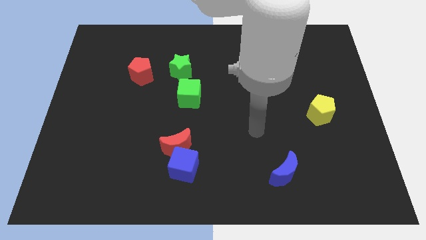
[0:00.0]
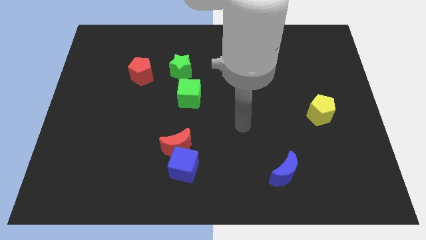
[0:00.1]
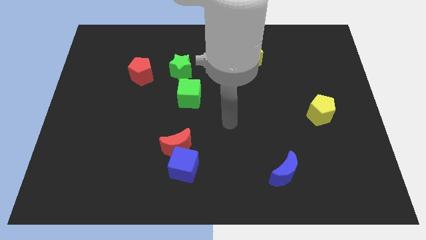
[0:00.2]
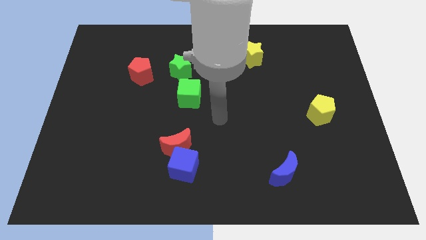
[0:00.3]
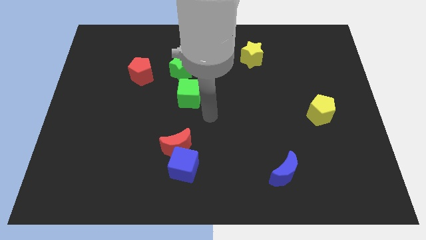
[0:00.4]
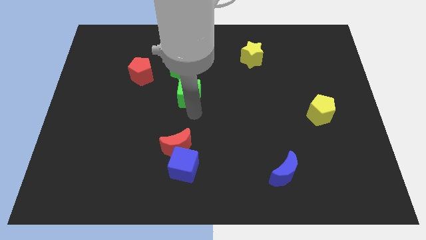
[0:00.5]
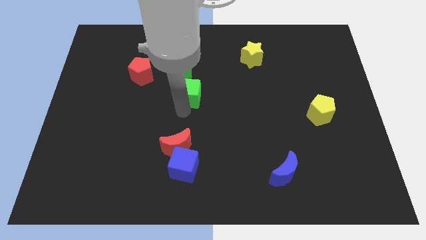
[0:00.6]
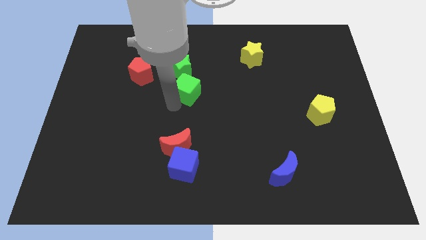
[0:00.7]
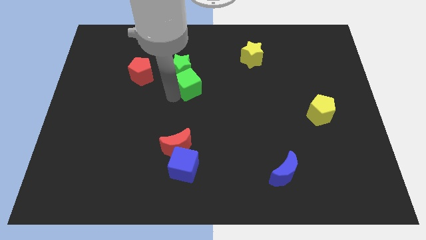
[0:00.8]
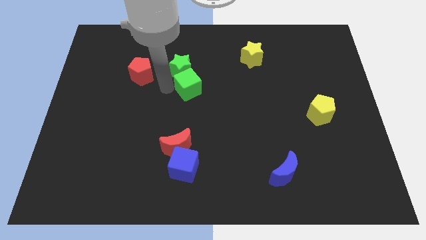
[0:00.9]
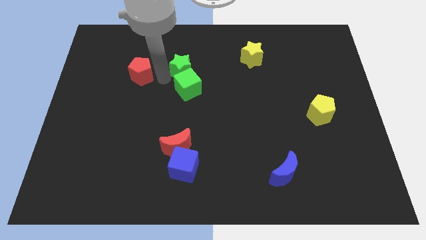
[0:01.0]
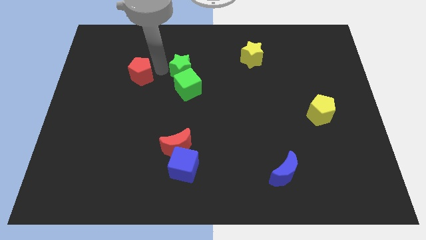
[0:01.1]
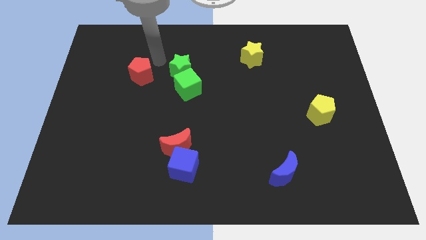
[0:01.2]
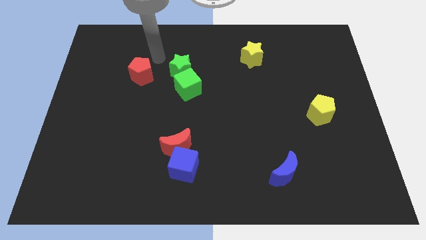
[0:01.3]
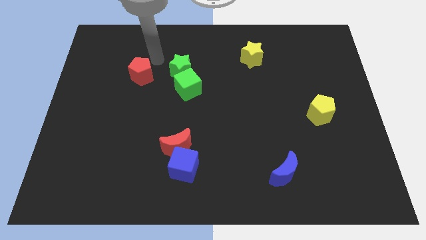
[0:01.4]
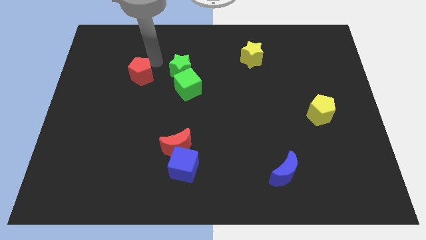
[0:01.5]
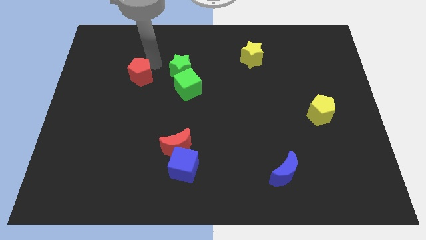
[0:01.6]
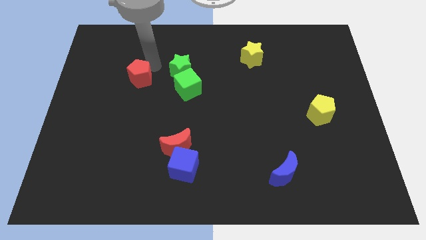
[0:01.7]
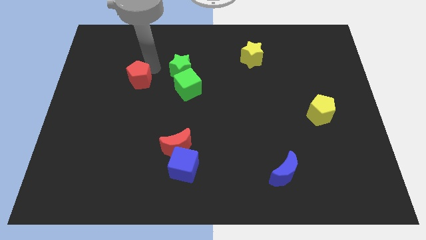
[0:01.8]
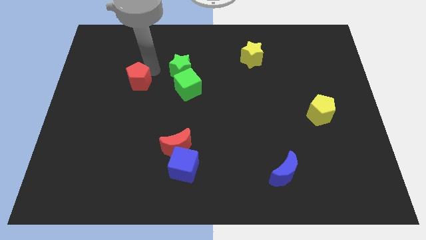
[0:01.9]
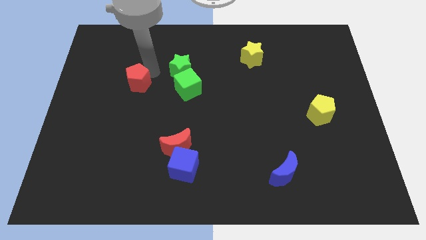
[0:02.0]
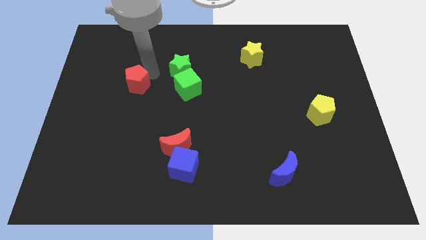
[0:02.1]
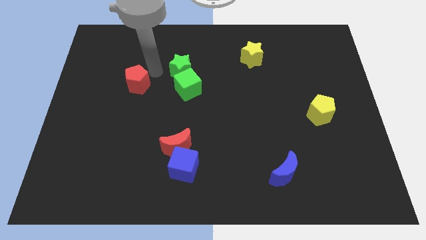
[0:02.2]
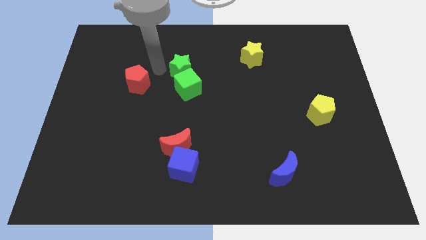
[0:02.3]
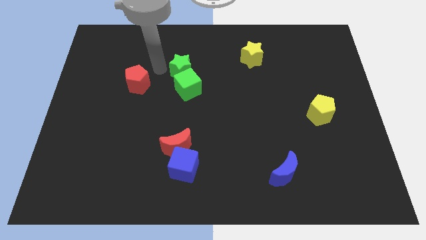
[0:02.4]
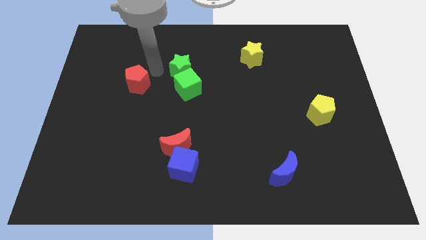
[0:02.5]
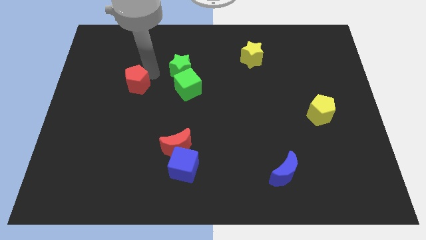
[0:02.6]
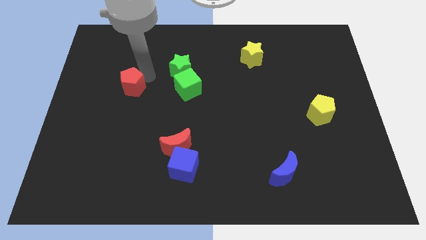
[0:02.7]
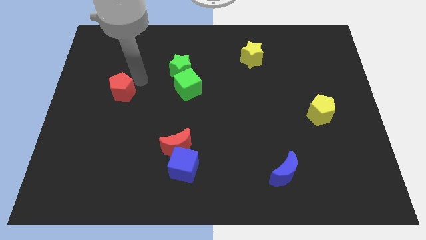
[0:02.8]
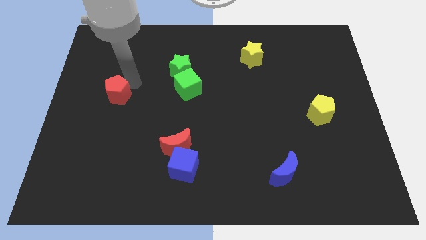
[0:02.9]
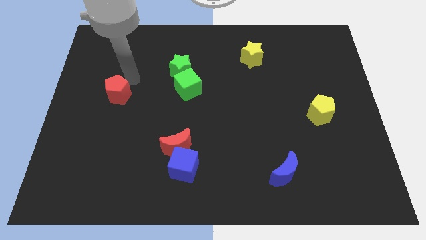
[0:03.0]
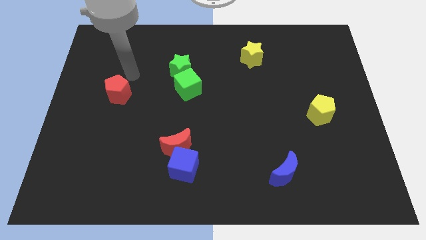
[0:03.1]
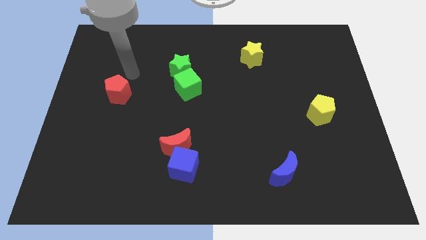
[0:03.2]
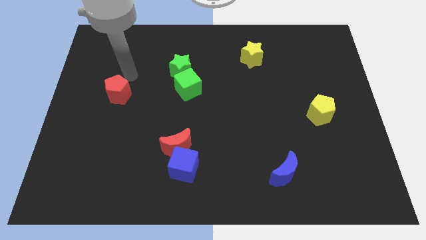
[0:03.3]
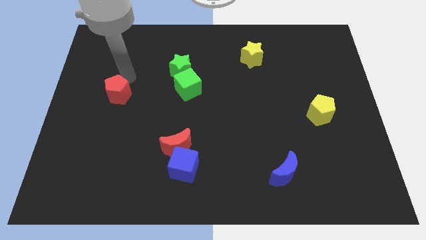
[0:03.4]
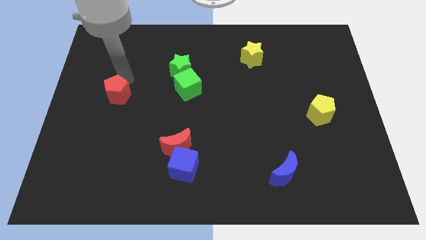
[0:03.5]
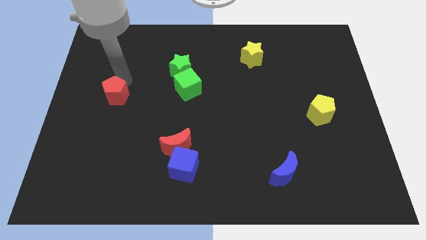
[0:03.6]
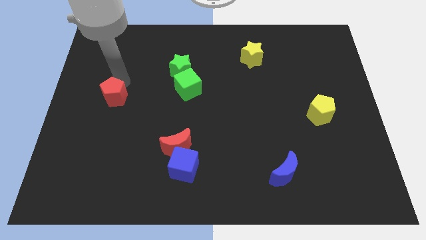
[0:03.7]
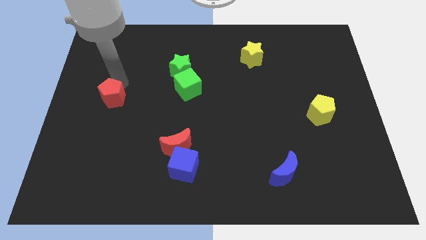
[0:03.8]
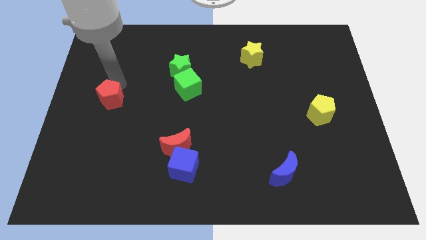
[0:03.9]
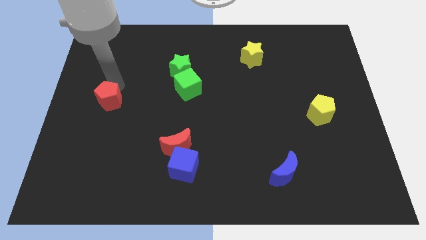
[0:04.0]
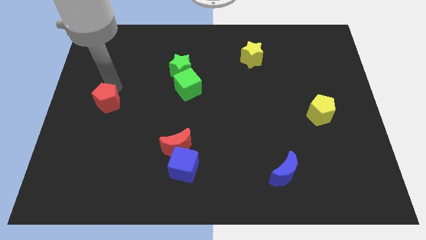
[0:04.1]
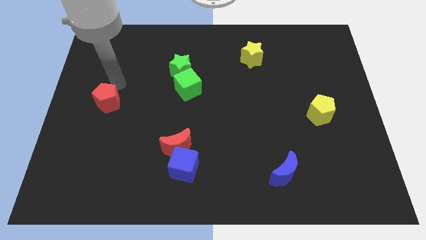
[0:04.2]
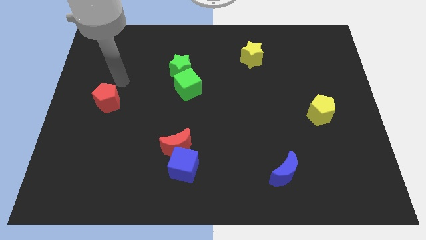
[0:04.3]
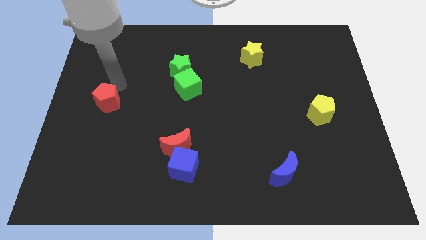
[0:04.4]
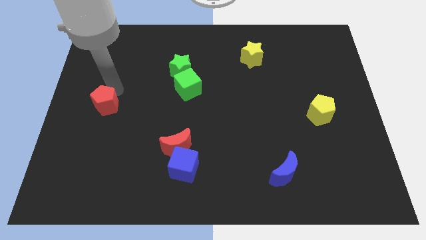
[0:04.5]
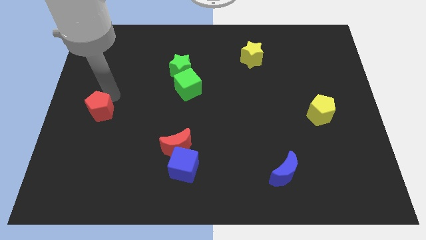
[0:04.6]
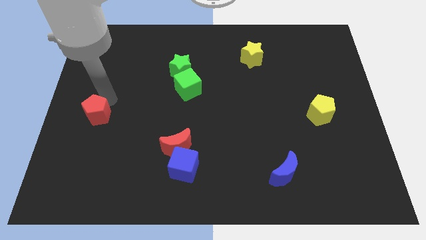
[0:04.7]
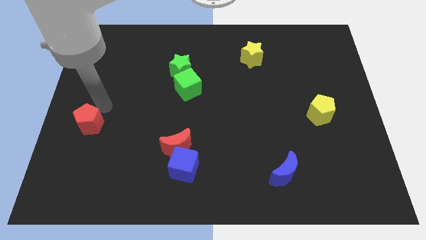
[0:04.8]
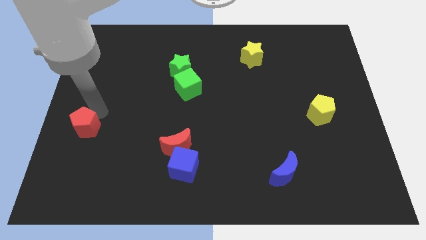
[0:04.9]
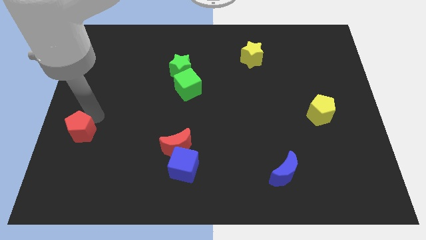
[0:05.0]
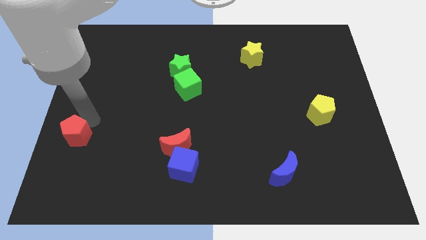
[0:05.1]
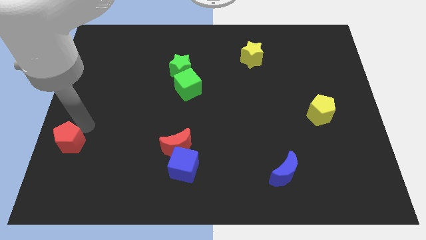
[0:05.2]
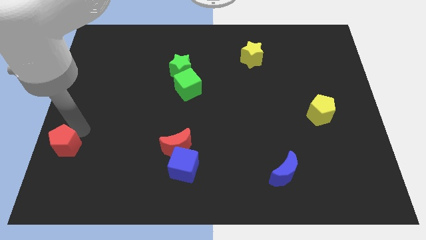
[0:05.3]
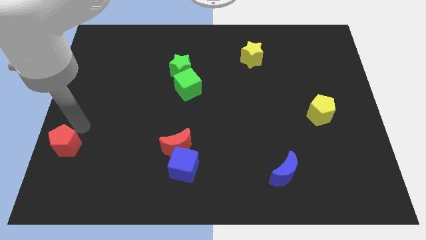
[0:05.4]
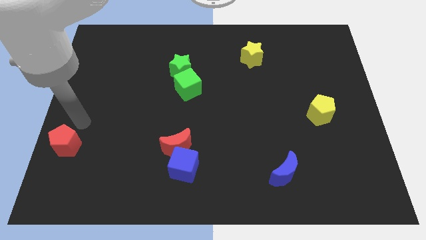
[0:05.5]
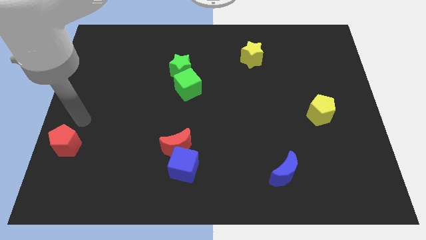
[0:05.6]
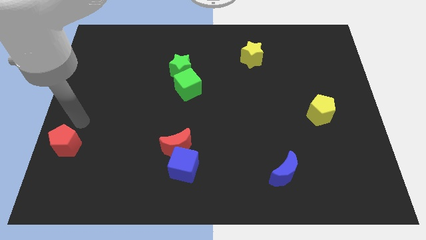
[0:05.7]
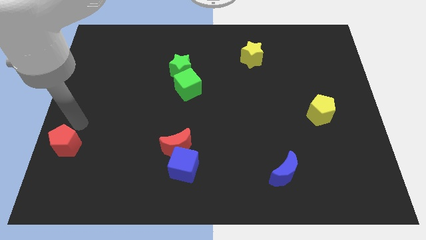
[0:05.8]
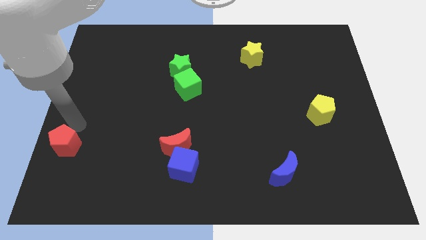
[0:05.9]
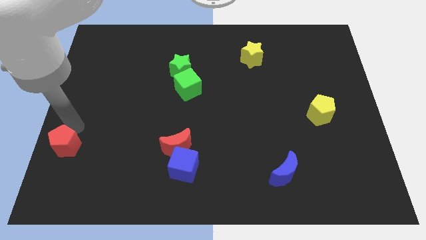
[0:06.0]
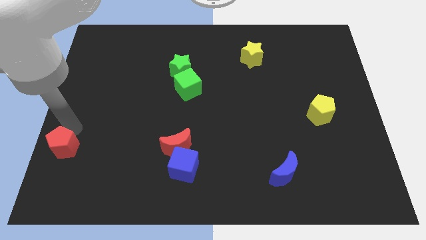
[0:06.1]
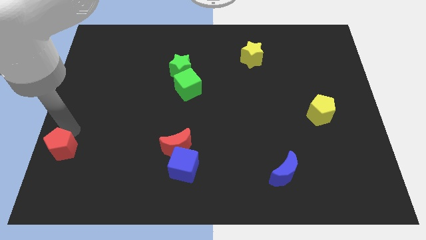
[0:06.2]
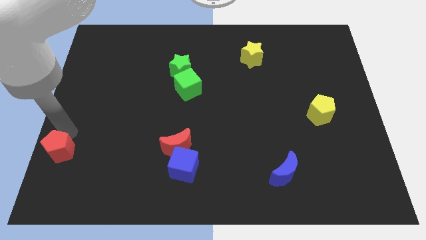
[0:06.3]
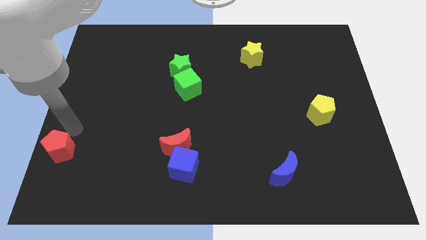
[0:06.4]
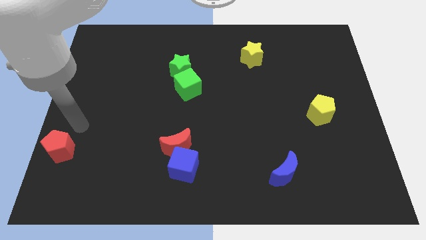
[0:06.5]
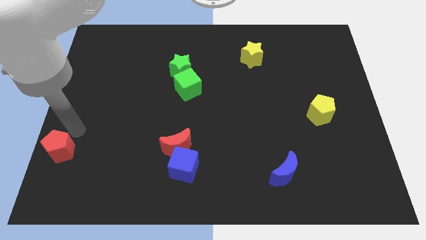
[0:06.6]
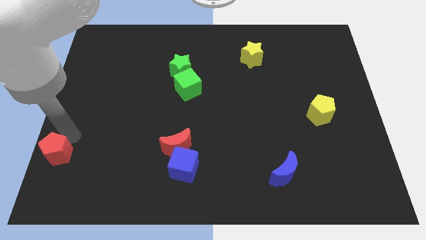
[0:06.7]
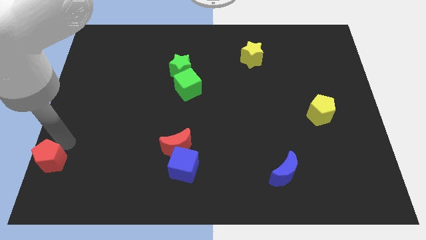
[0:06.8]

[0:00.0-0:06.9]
slide the red pentagon to the bottom left of the board
